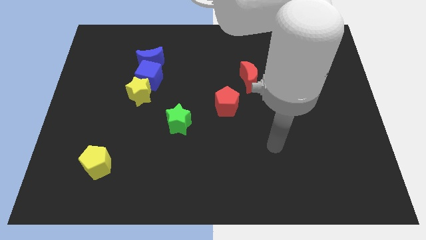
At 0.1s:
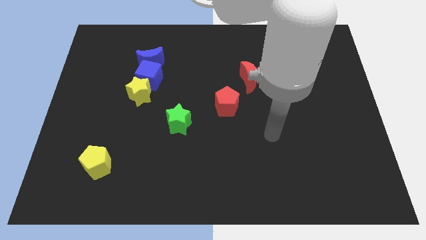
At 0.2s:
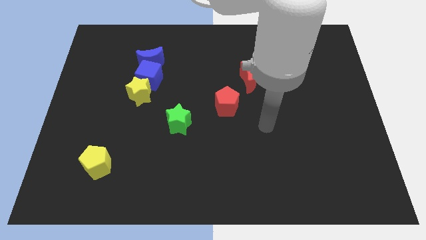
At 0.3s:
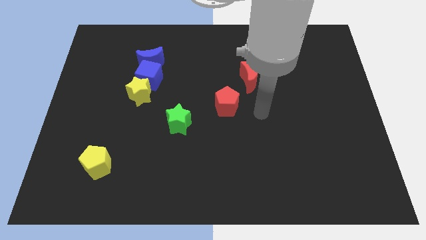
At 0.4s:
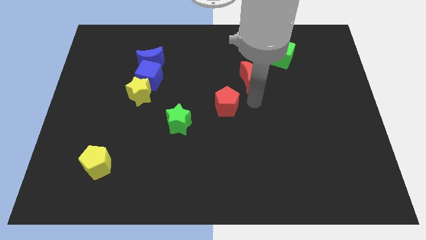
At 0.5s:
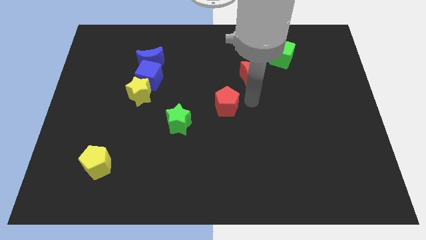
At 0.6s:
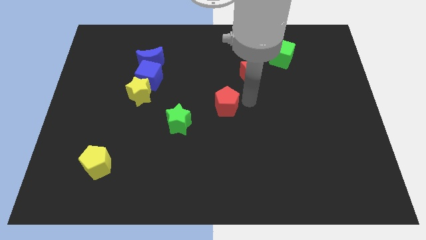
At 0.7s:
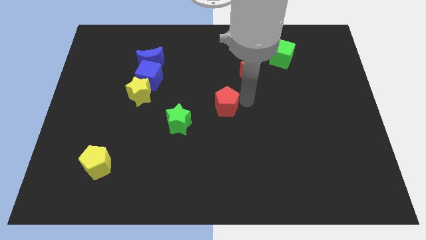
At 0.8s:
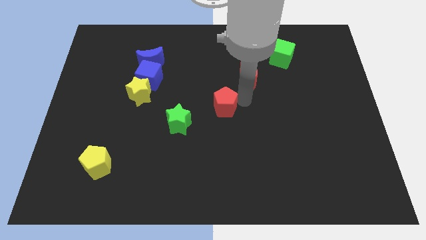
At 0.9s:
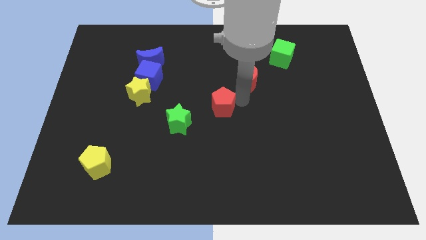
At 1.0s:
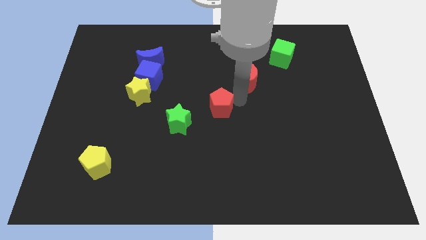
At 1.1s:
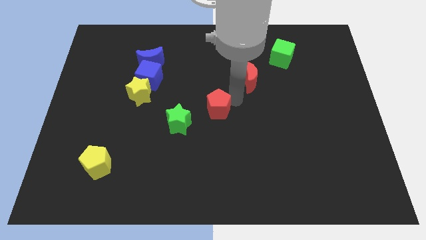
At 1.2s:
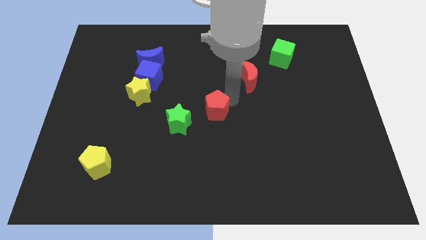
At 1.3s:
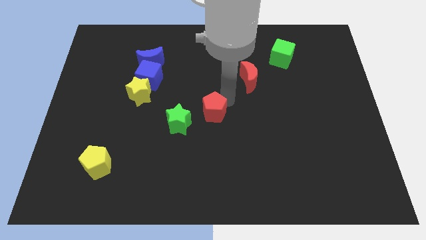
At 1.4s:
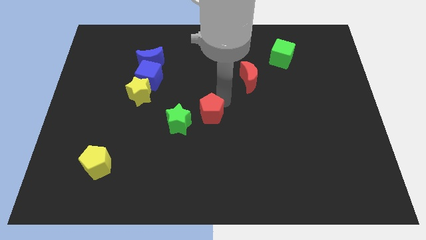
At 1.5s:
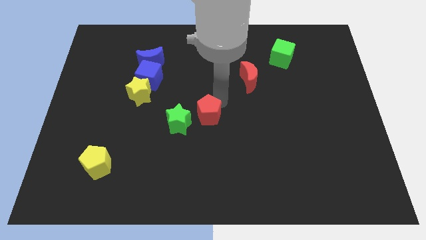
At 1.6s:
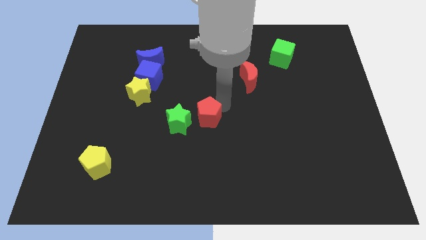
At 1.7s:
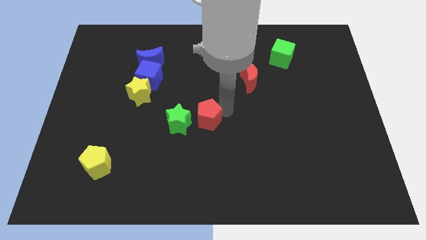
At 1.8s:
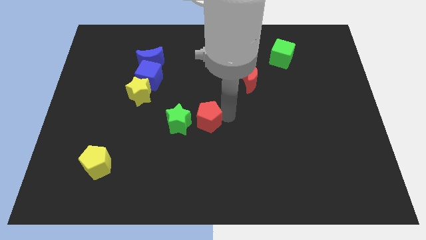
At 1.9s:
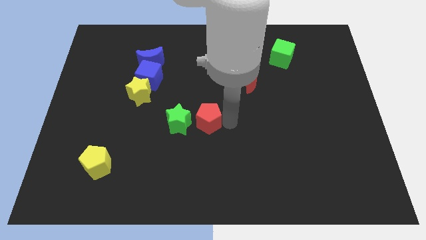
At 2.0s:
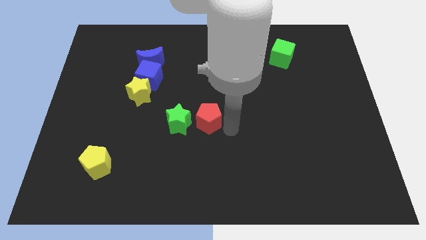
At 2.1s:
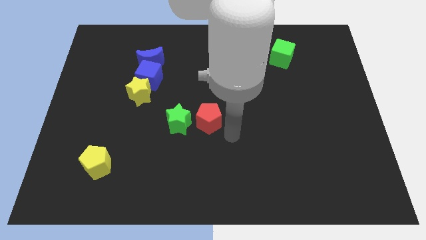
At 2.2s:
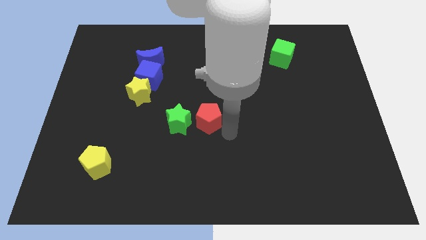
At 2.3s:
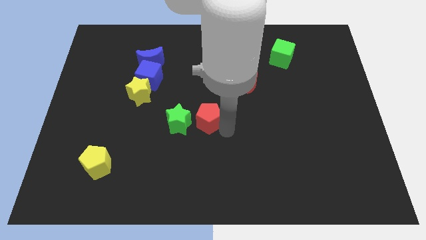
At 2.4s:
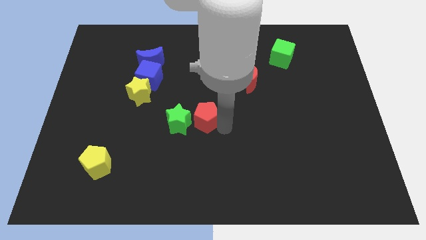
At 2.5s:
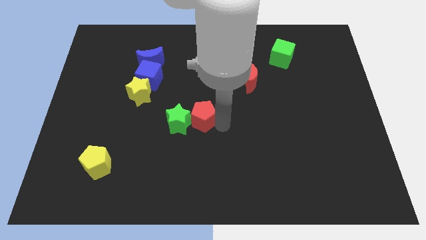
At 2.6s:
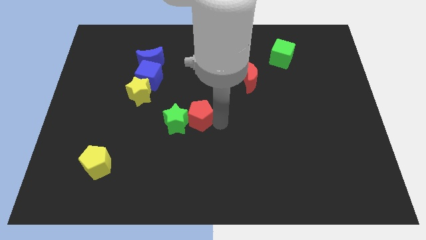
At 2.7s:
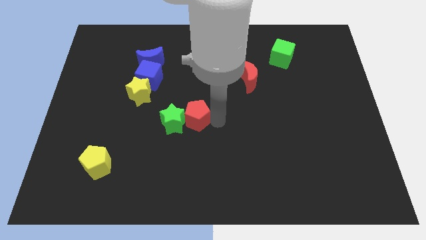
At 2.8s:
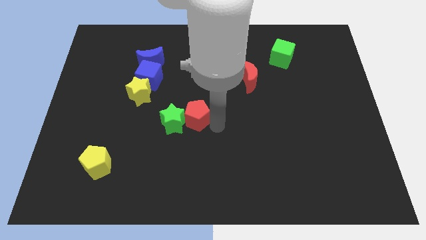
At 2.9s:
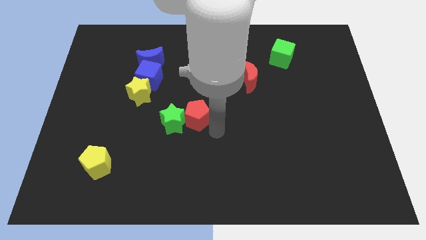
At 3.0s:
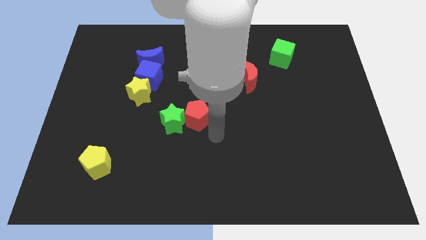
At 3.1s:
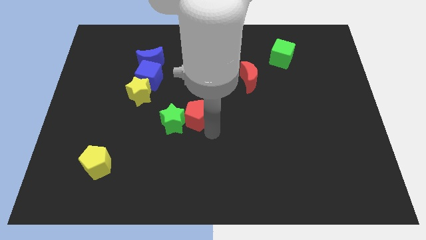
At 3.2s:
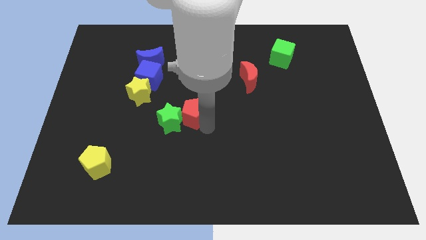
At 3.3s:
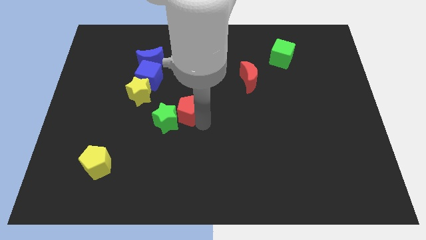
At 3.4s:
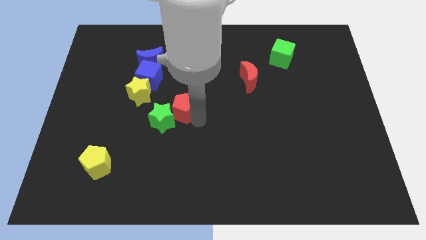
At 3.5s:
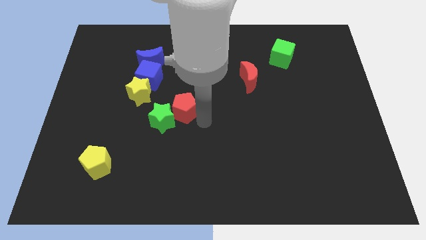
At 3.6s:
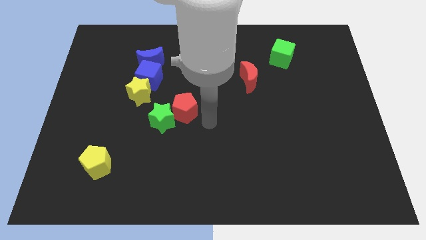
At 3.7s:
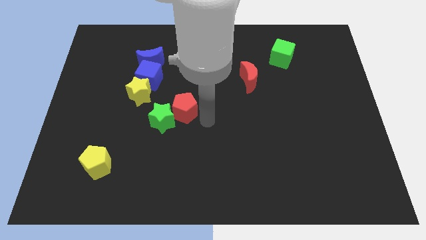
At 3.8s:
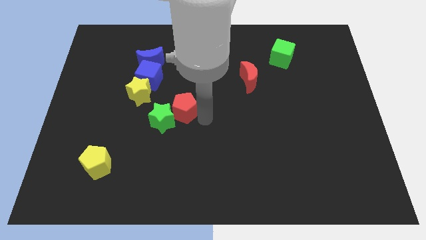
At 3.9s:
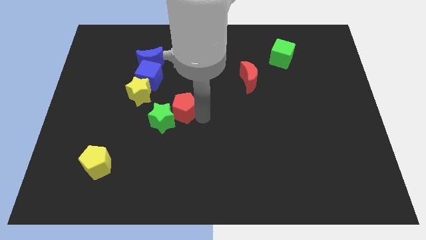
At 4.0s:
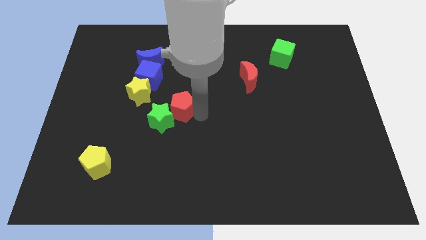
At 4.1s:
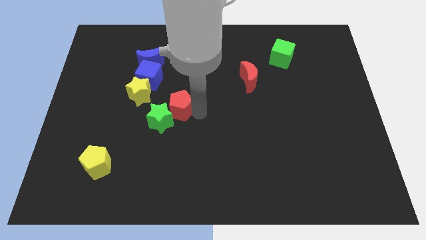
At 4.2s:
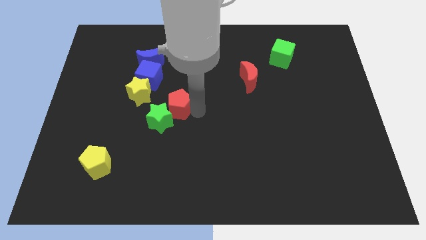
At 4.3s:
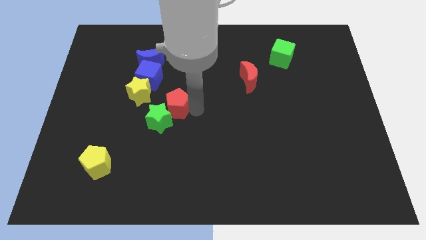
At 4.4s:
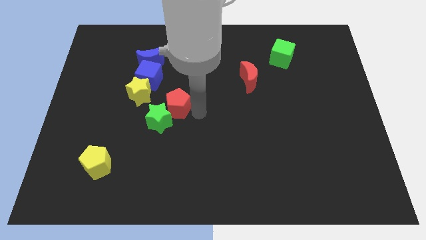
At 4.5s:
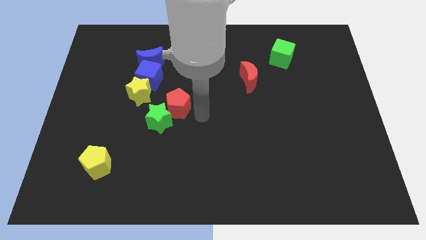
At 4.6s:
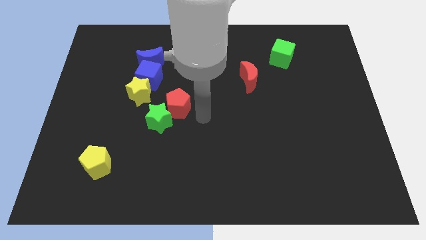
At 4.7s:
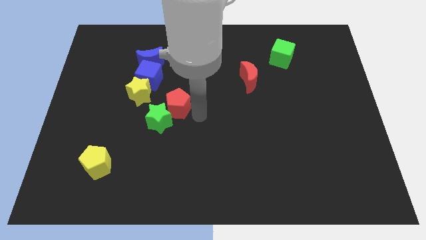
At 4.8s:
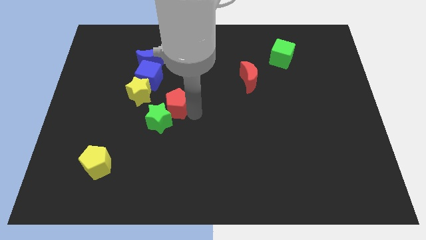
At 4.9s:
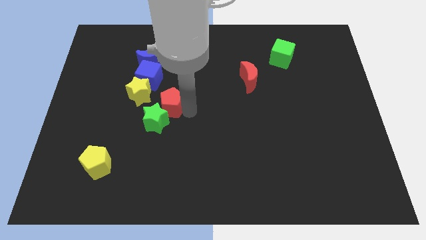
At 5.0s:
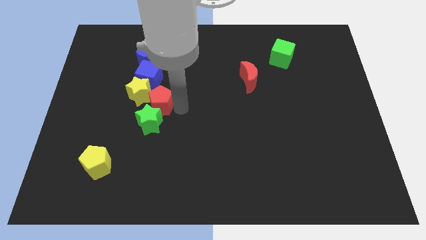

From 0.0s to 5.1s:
move the red pentagon towards the yellow star

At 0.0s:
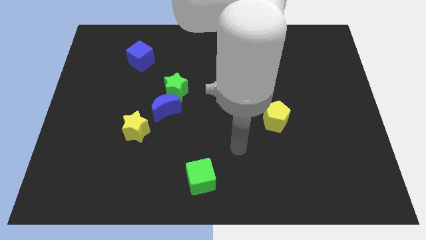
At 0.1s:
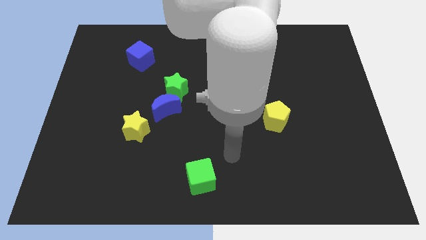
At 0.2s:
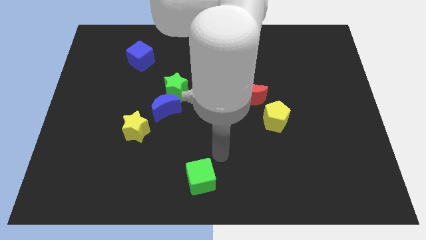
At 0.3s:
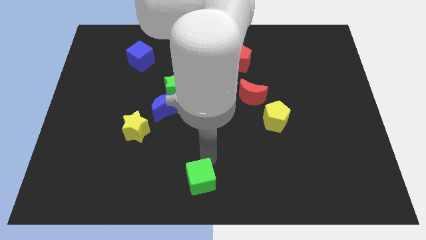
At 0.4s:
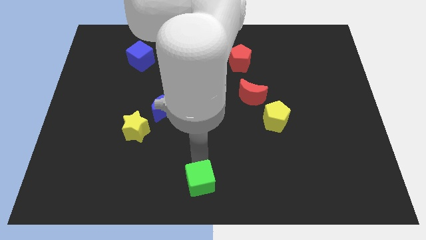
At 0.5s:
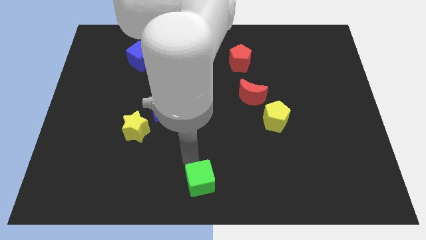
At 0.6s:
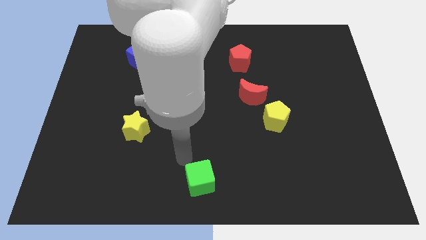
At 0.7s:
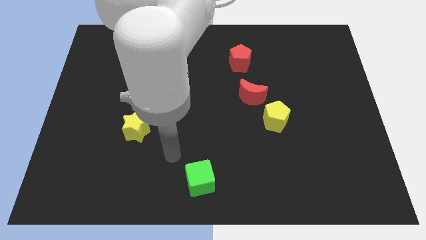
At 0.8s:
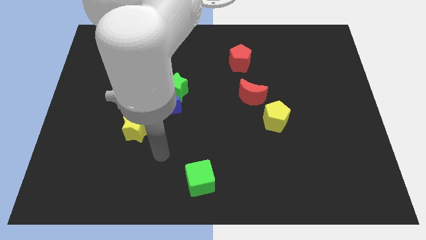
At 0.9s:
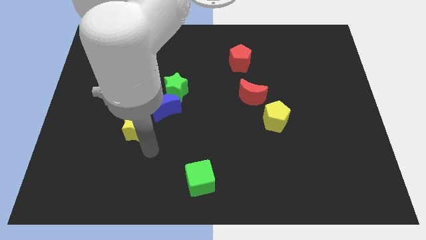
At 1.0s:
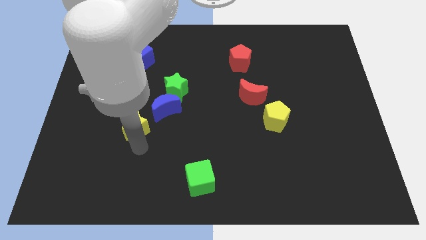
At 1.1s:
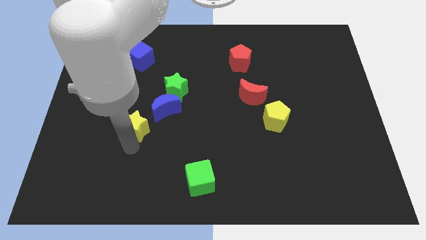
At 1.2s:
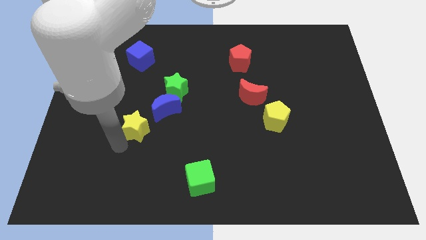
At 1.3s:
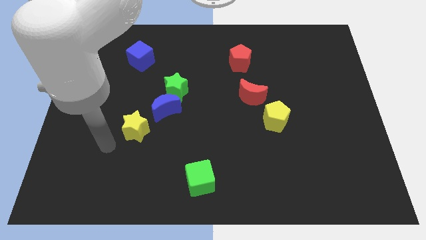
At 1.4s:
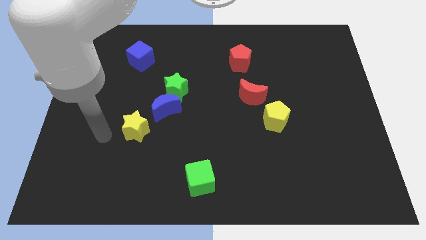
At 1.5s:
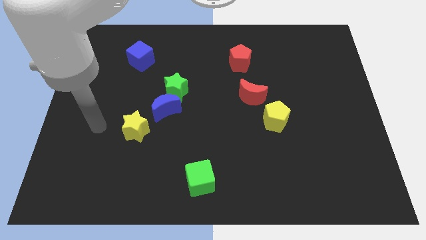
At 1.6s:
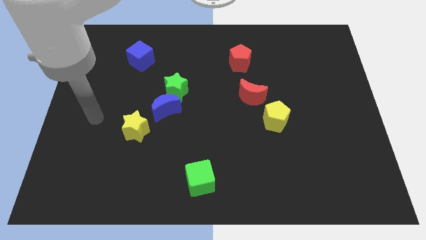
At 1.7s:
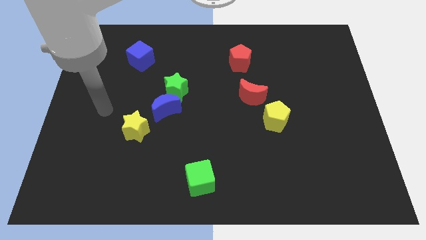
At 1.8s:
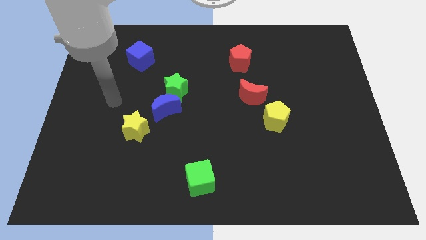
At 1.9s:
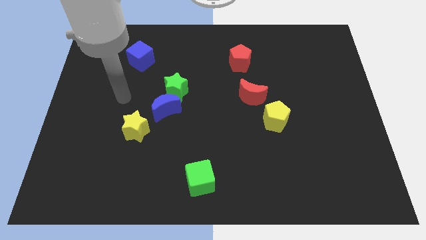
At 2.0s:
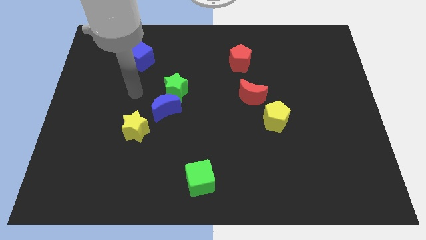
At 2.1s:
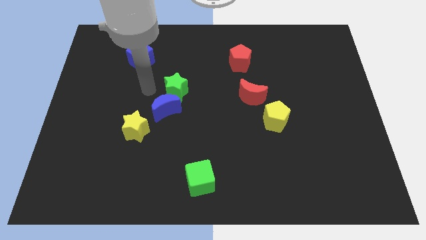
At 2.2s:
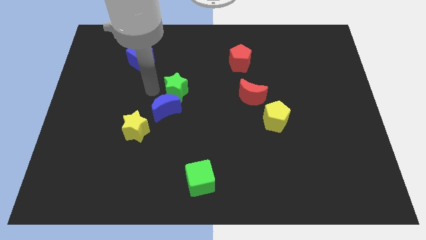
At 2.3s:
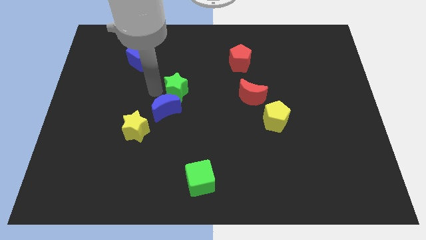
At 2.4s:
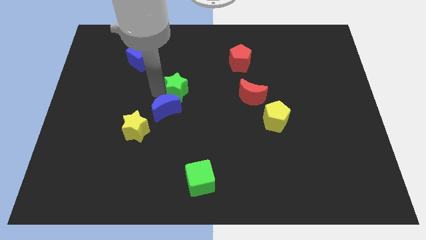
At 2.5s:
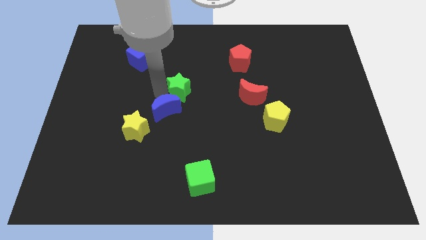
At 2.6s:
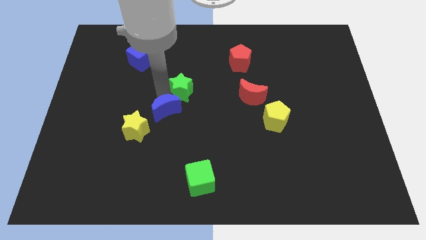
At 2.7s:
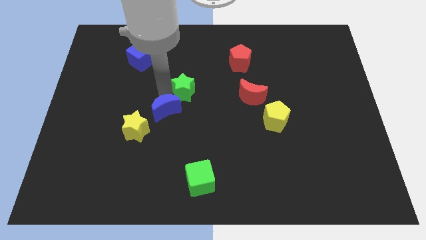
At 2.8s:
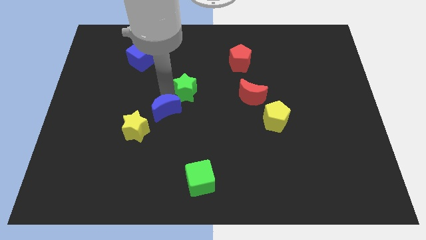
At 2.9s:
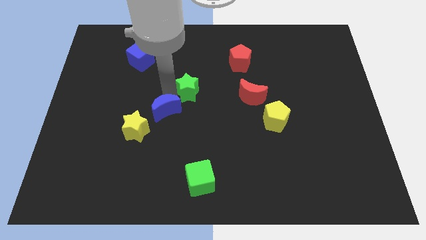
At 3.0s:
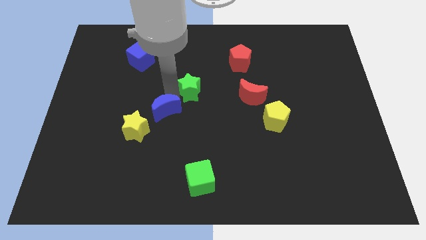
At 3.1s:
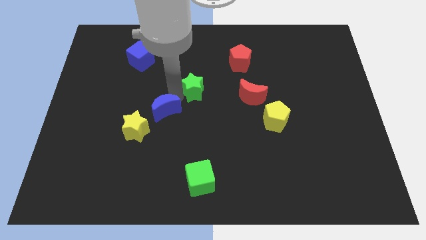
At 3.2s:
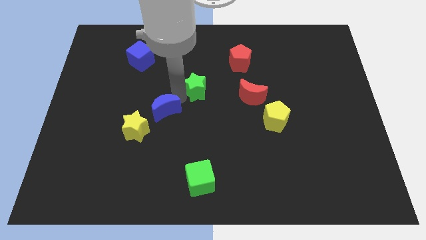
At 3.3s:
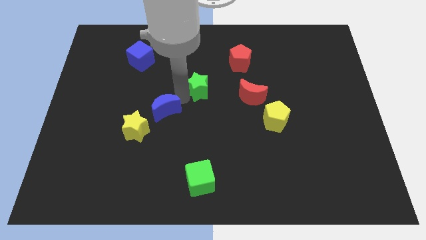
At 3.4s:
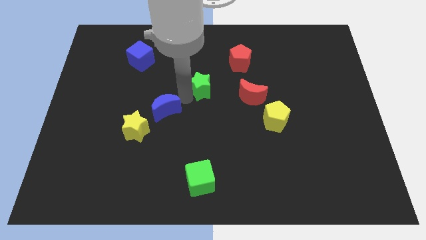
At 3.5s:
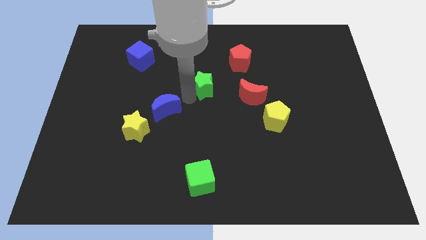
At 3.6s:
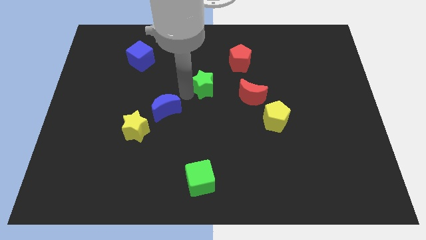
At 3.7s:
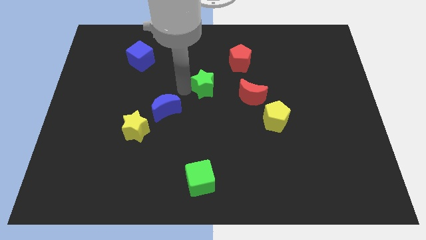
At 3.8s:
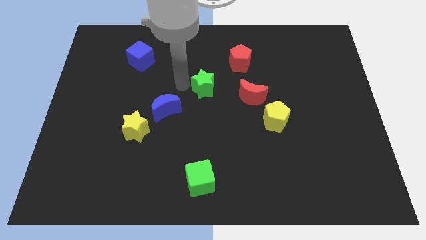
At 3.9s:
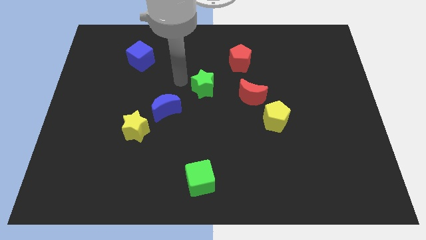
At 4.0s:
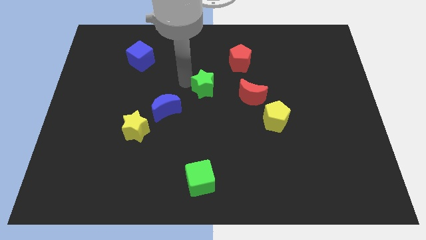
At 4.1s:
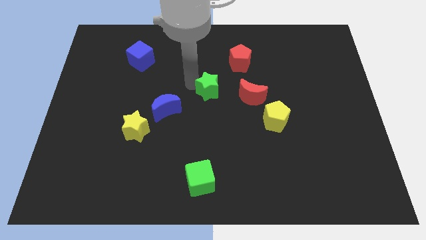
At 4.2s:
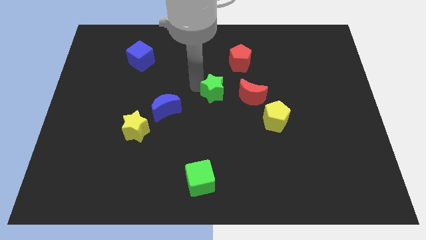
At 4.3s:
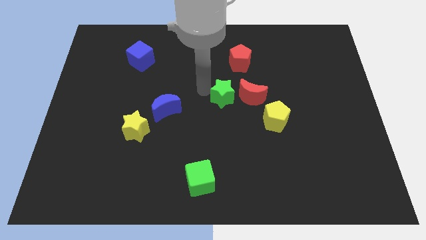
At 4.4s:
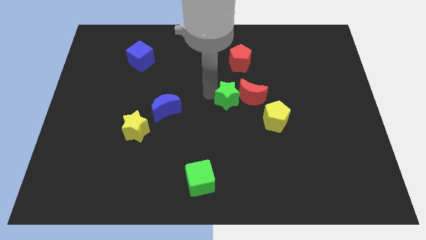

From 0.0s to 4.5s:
put the green star to the red moon
